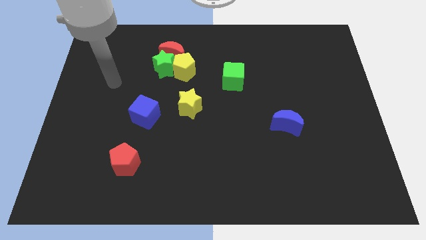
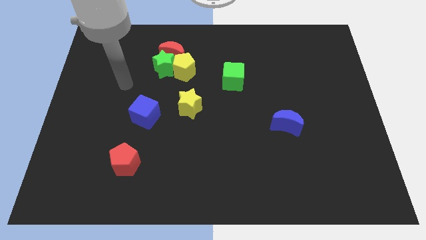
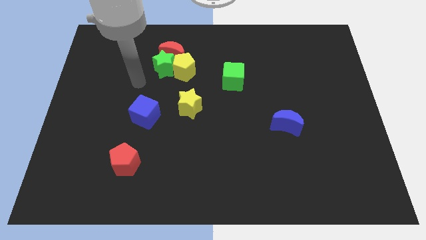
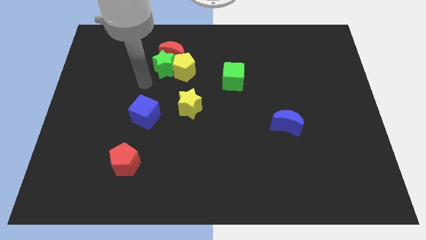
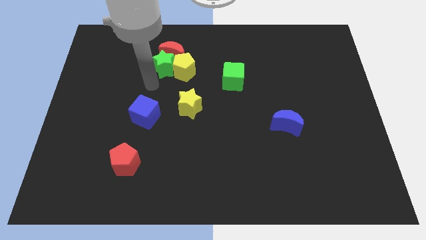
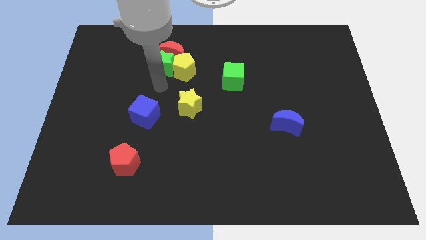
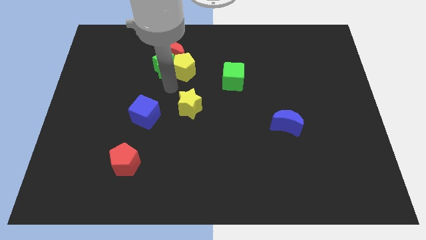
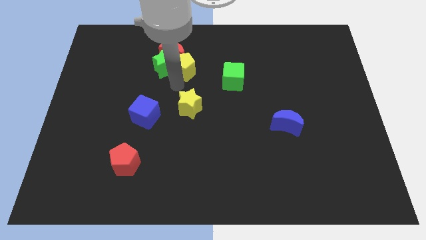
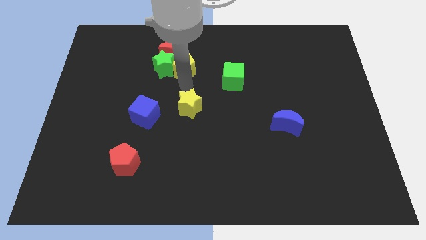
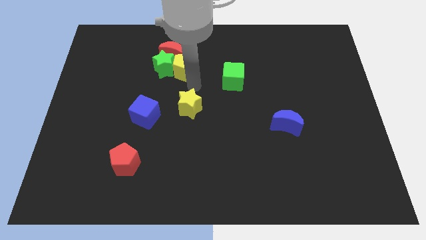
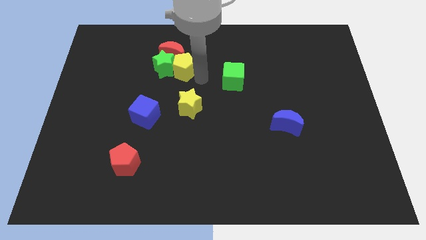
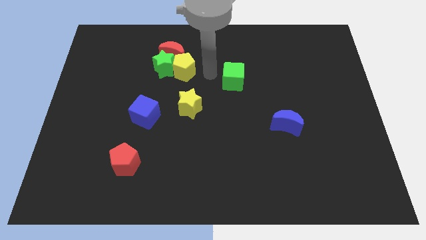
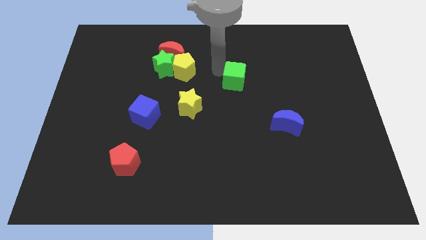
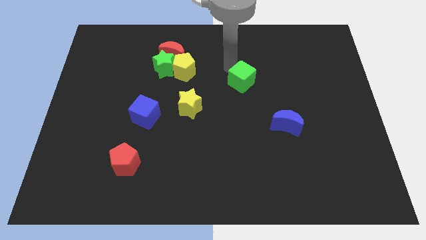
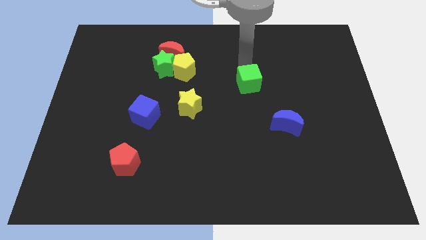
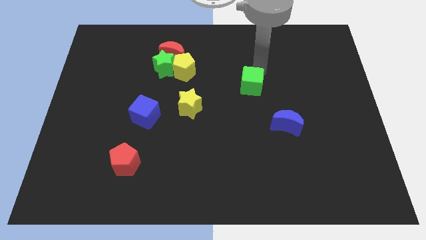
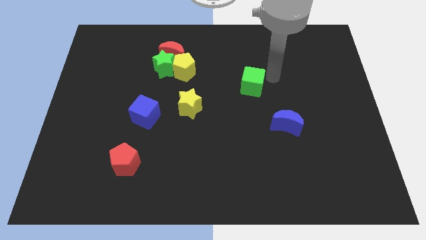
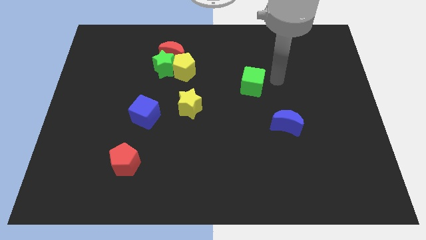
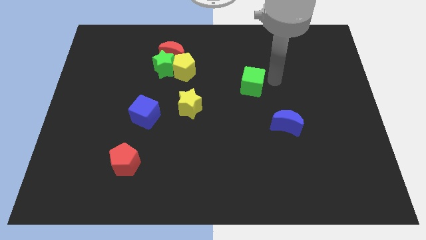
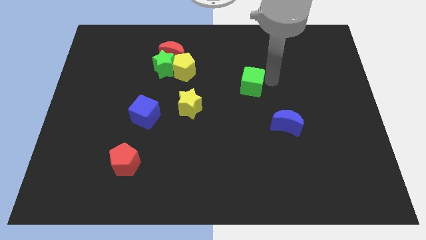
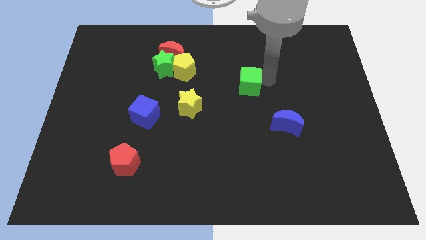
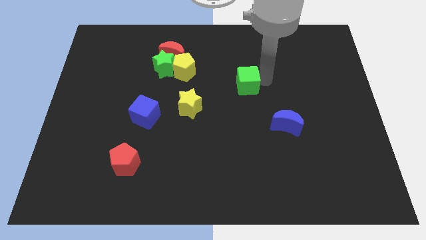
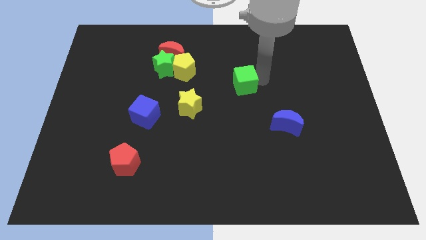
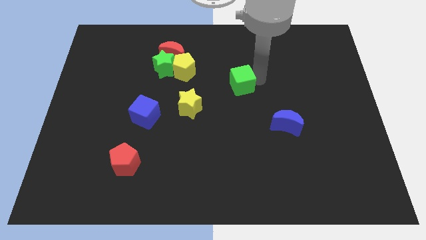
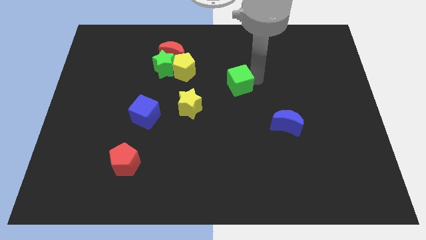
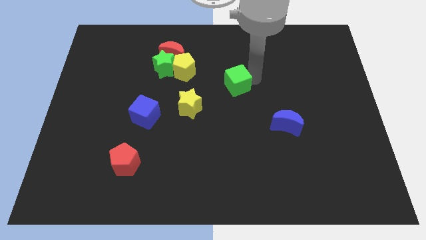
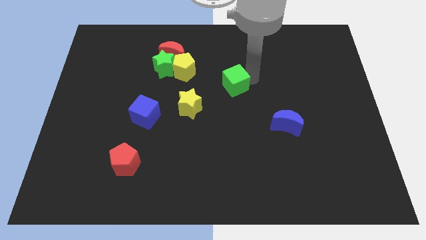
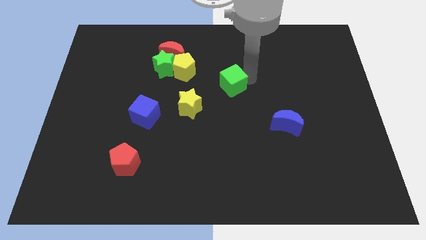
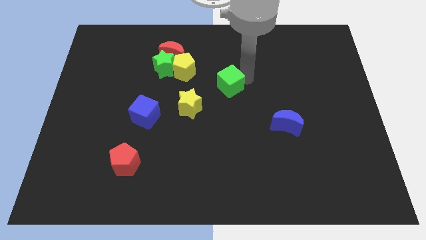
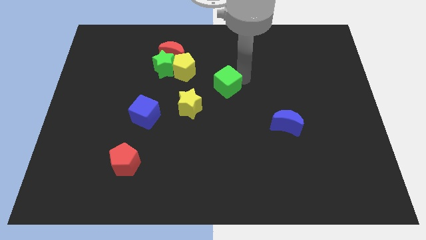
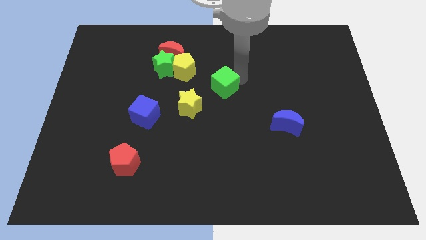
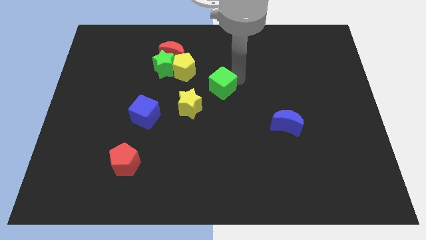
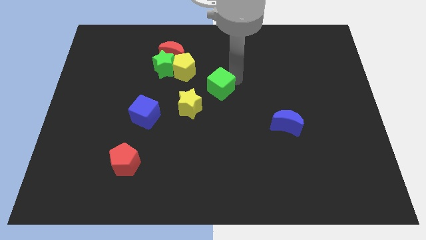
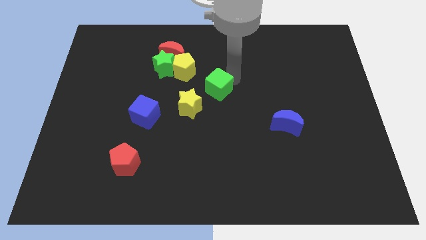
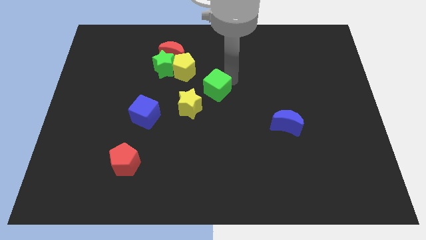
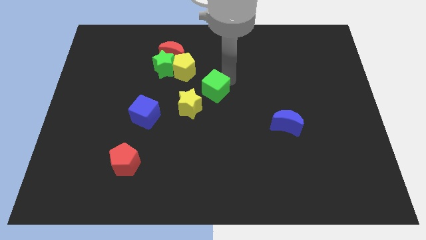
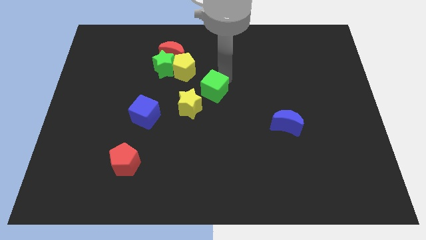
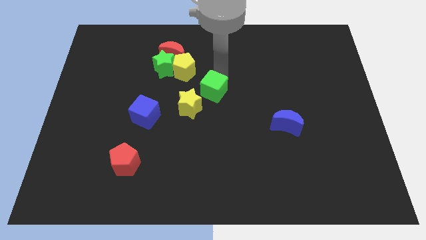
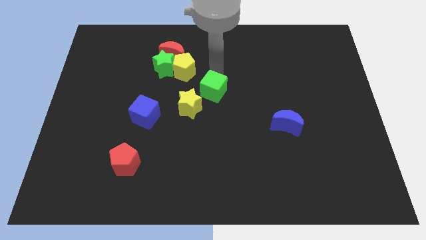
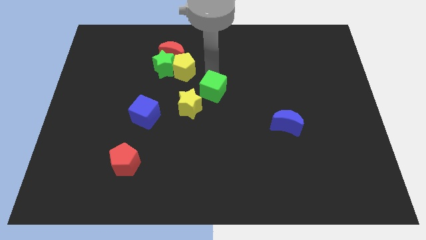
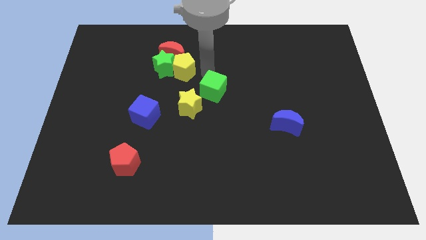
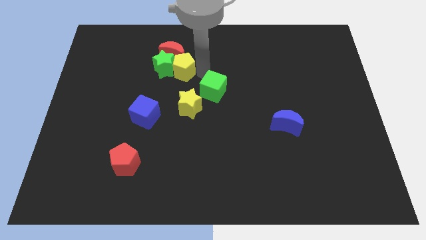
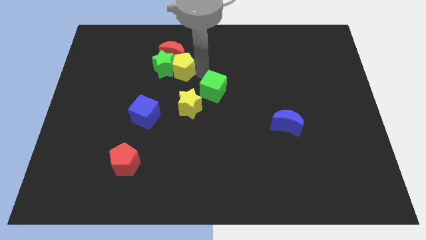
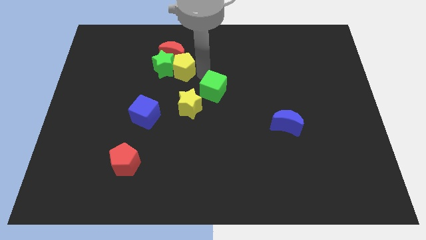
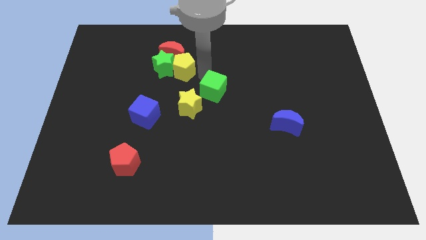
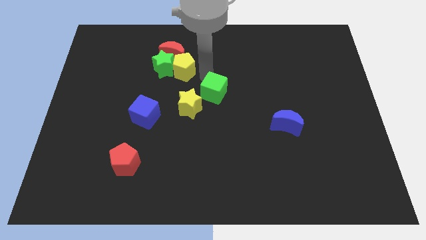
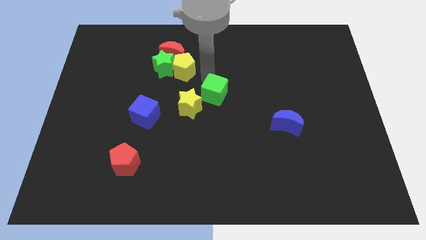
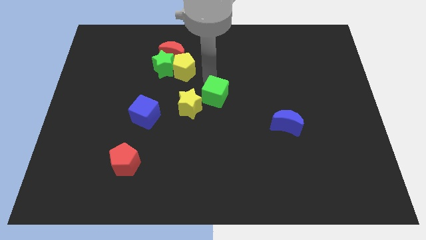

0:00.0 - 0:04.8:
move the green cube a little bit down and left diagonally

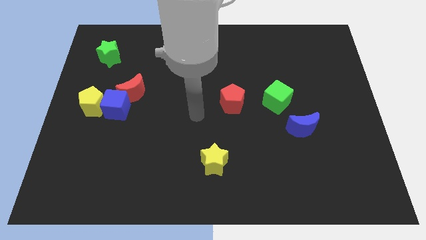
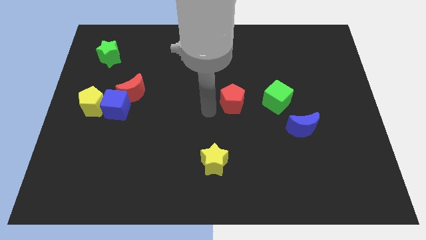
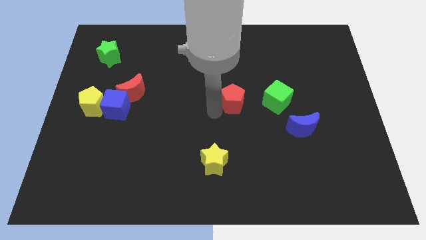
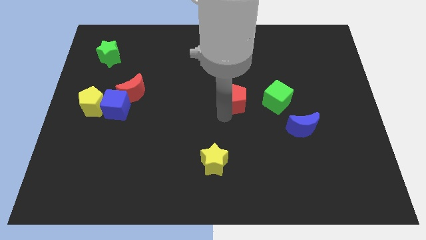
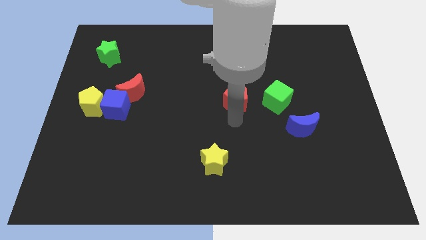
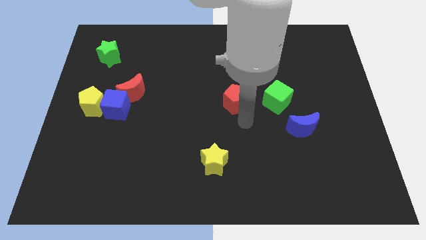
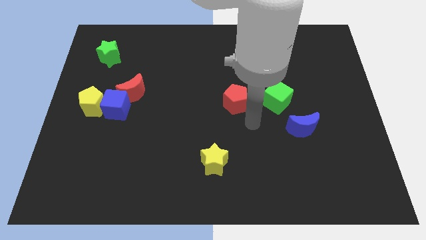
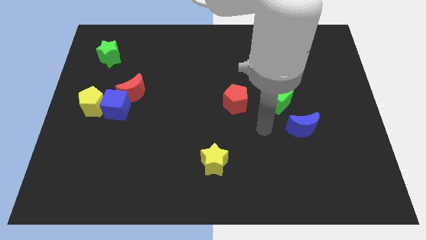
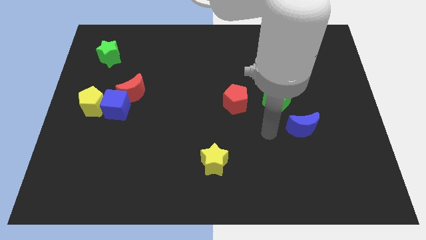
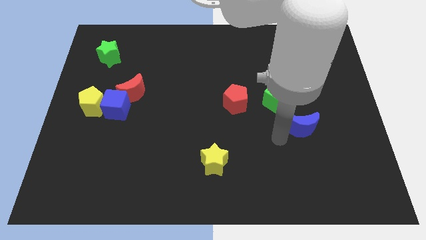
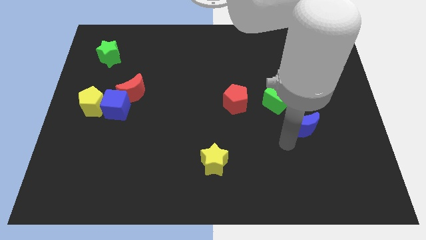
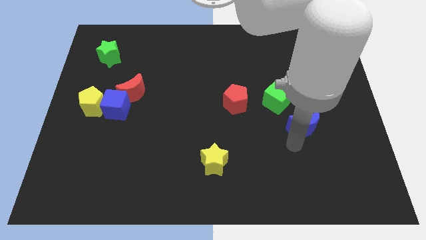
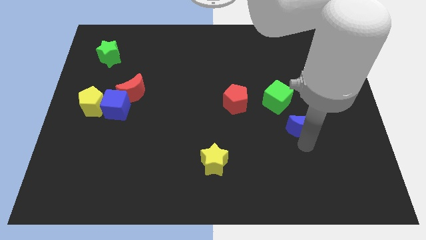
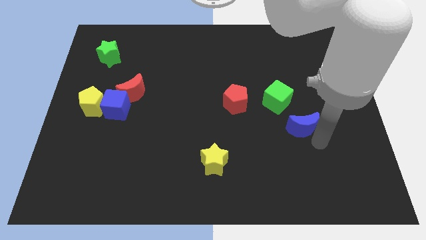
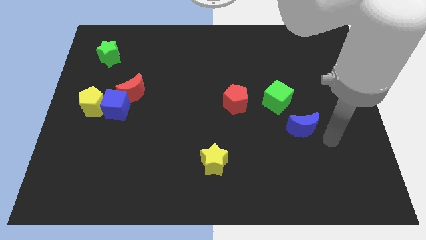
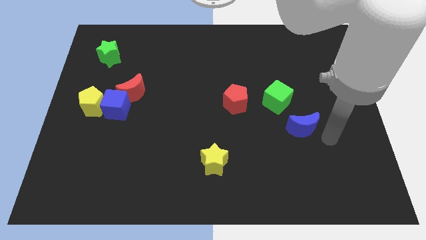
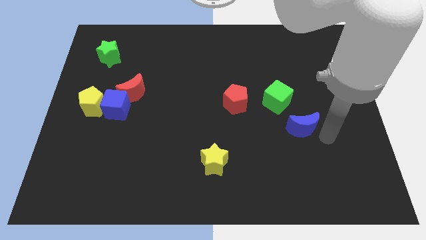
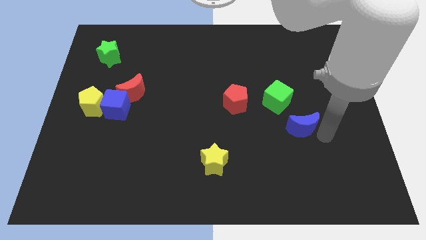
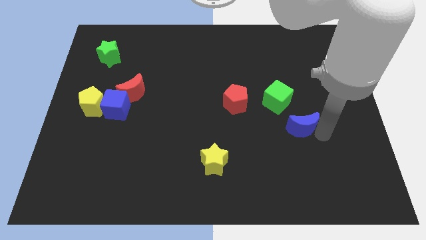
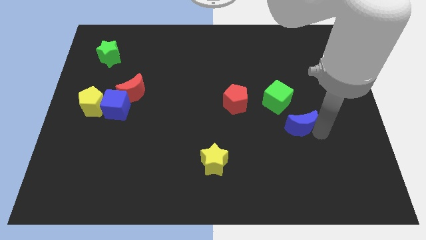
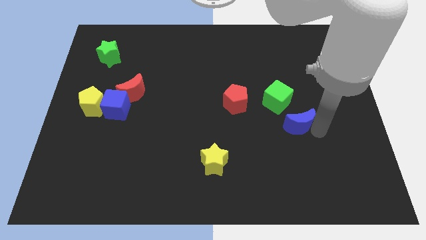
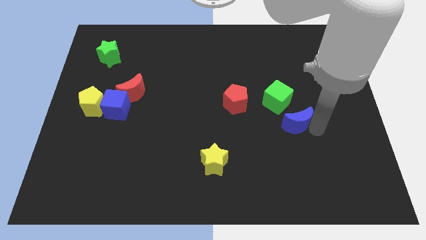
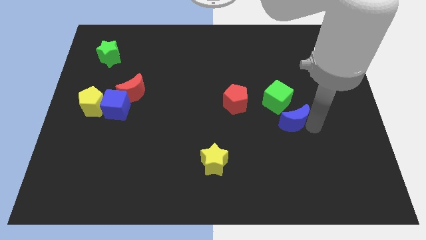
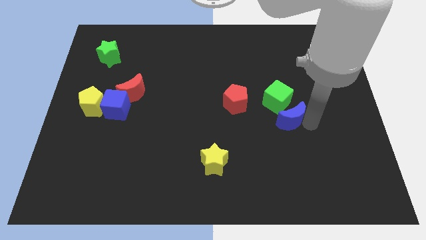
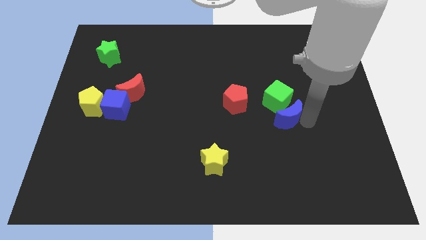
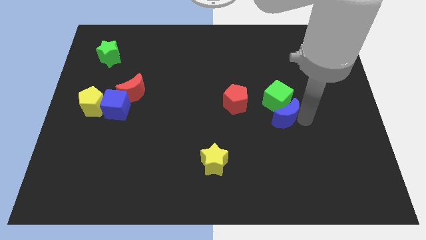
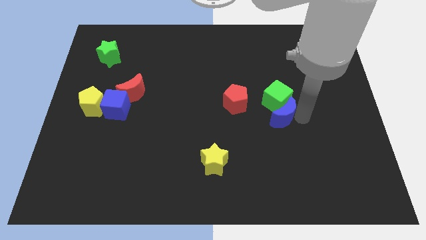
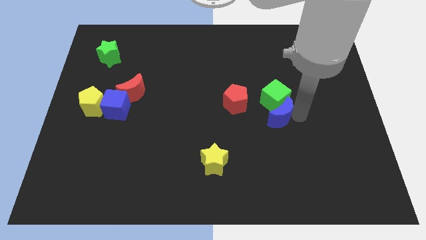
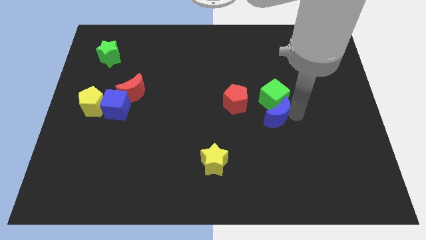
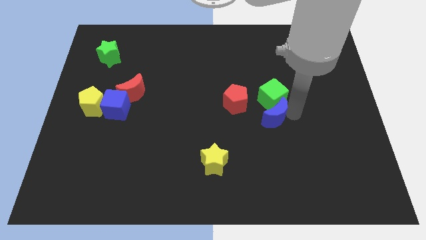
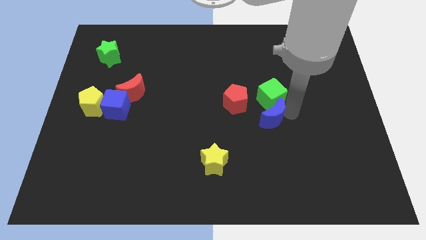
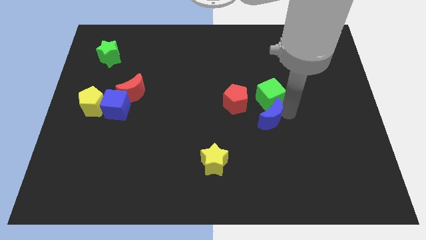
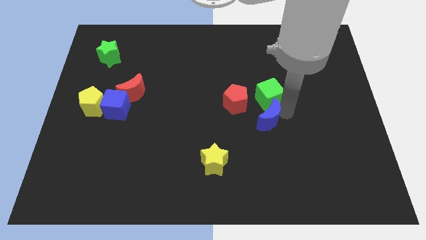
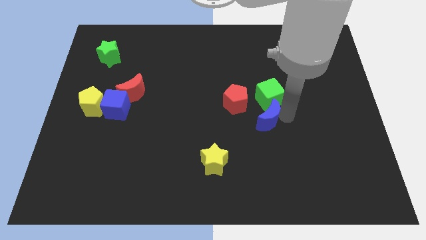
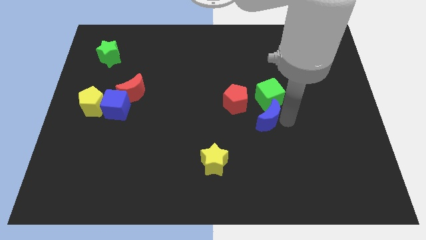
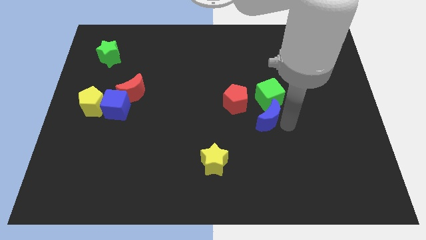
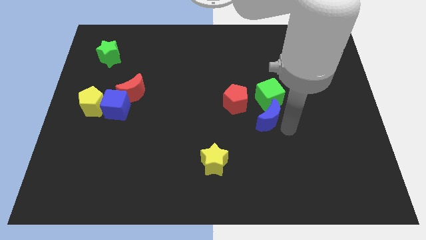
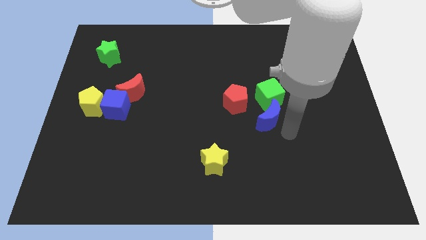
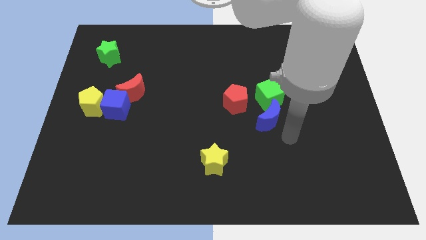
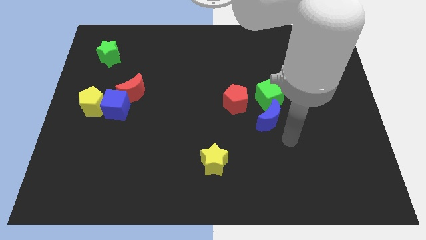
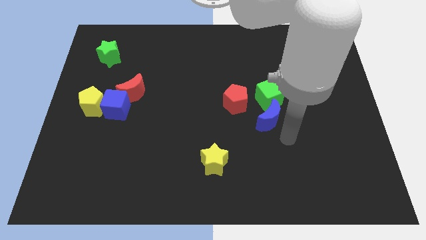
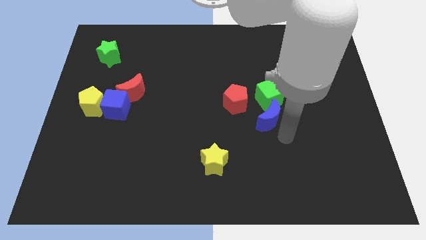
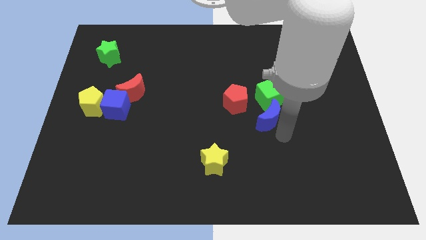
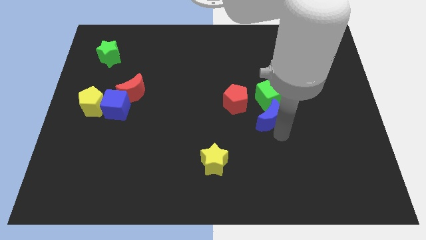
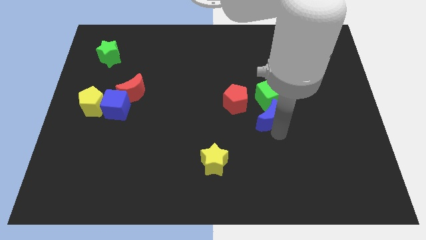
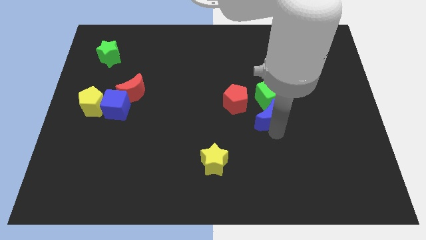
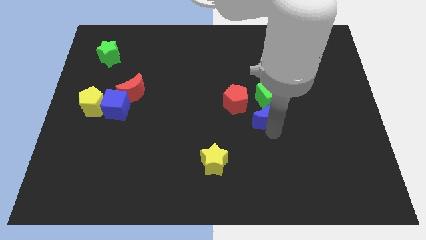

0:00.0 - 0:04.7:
push the blue moon a little bit diagonally upwards and to the left
